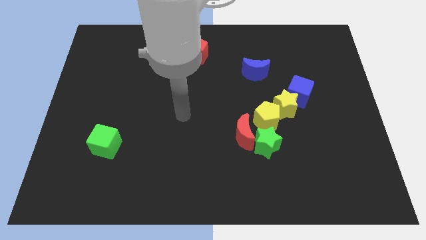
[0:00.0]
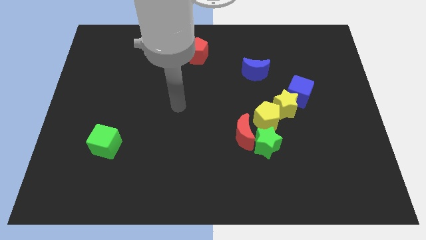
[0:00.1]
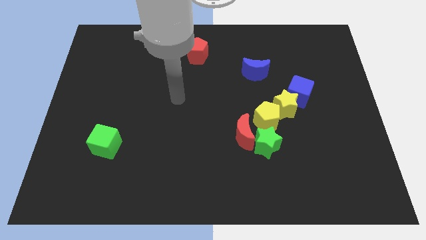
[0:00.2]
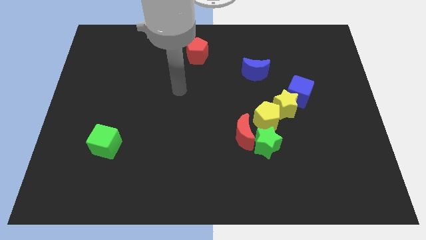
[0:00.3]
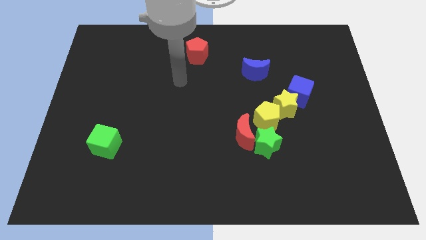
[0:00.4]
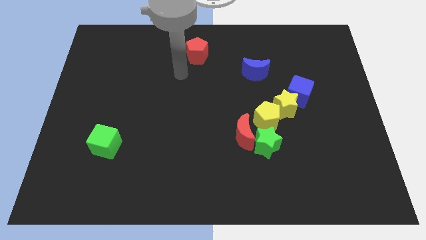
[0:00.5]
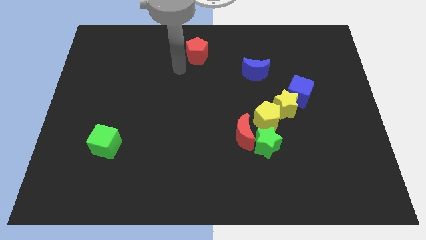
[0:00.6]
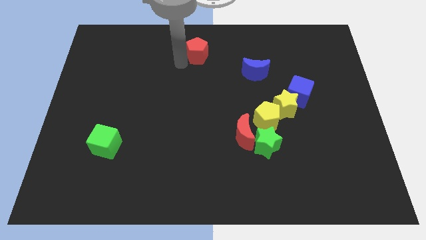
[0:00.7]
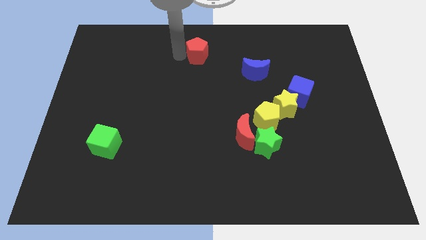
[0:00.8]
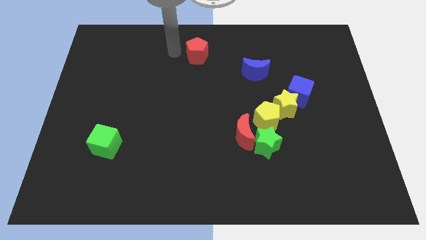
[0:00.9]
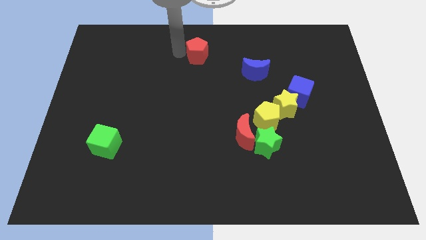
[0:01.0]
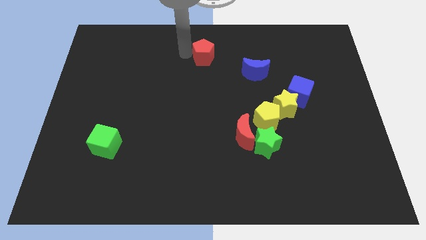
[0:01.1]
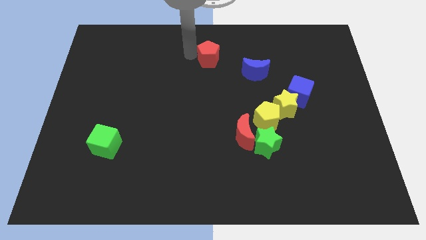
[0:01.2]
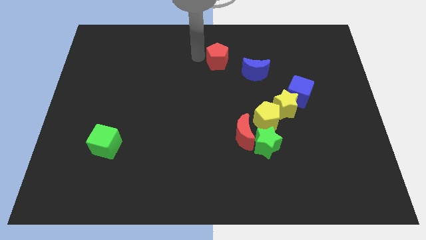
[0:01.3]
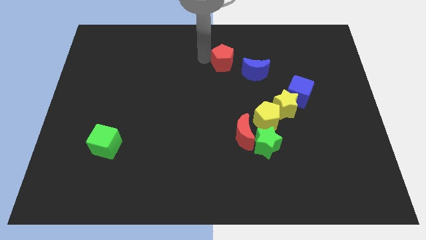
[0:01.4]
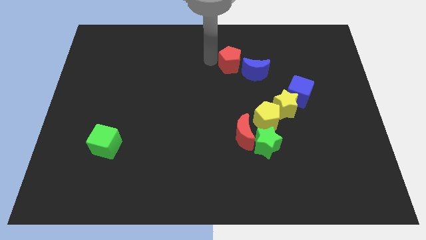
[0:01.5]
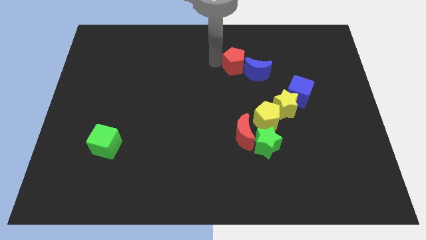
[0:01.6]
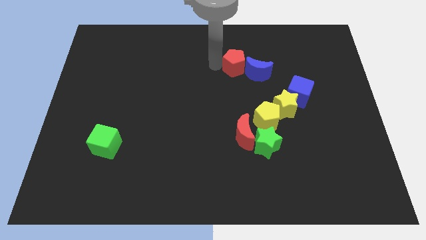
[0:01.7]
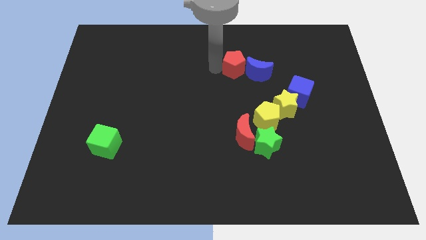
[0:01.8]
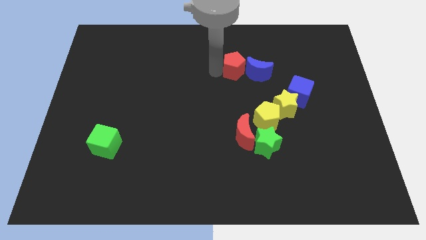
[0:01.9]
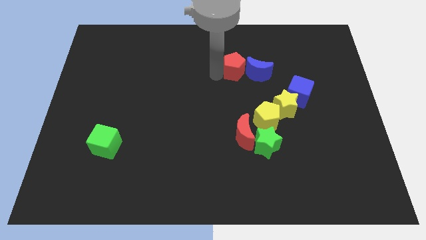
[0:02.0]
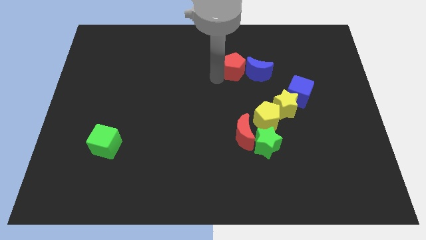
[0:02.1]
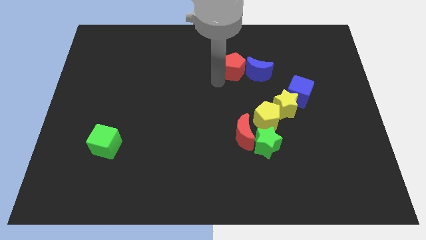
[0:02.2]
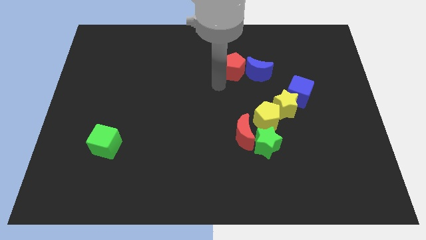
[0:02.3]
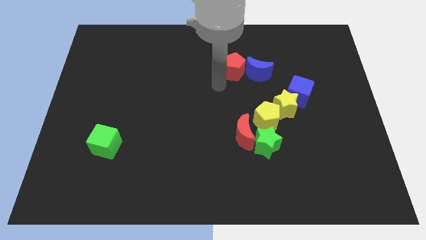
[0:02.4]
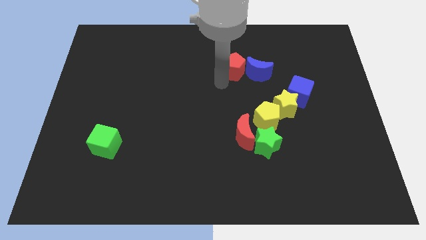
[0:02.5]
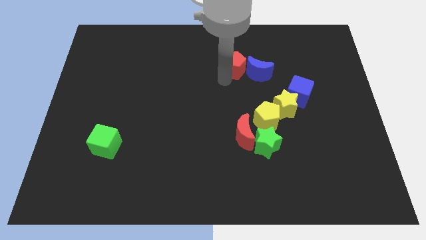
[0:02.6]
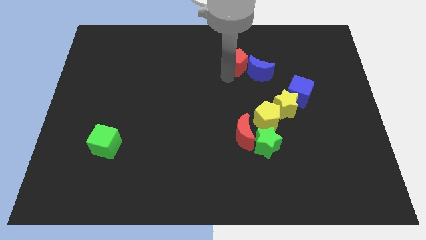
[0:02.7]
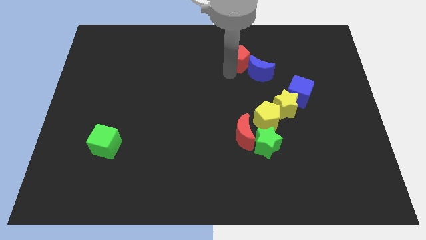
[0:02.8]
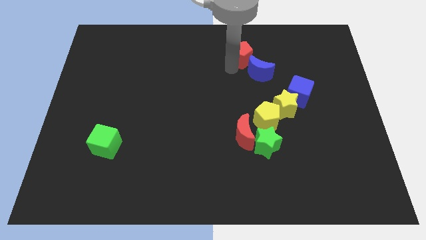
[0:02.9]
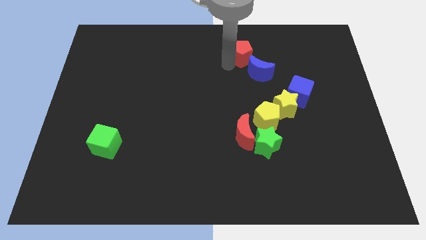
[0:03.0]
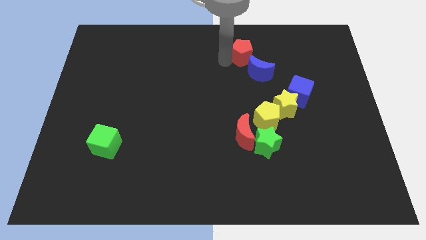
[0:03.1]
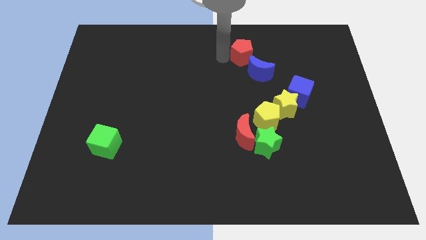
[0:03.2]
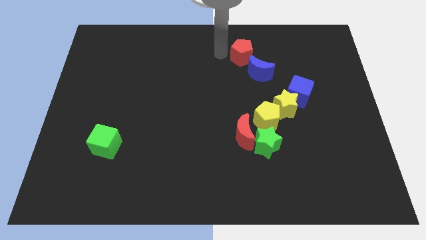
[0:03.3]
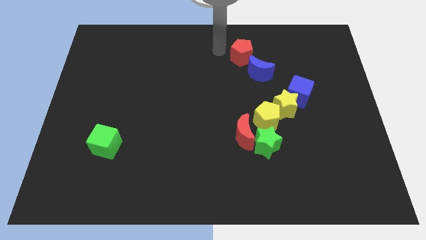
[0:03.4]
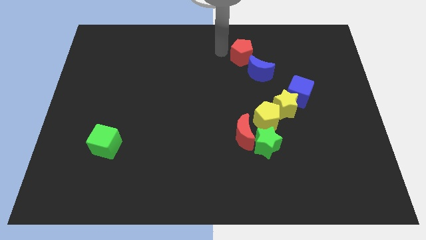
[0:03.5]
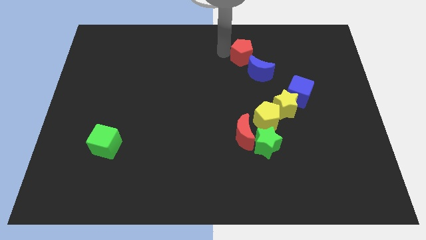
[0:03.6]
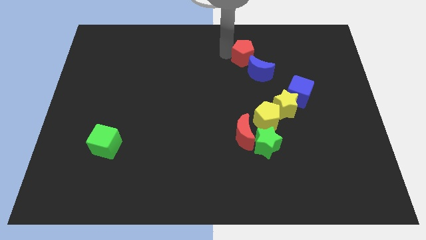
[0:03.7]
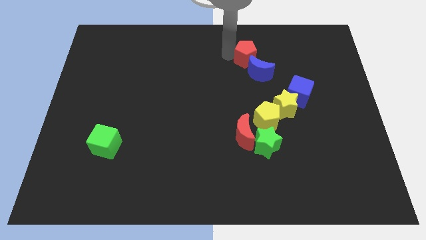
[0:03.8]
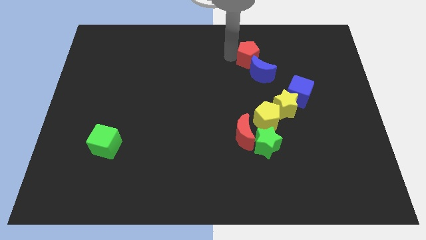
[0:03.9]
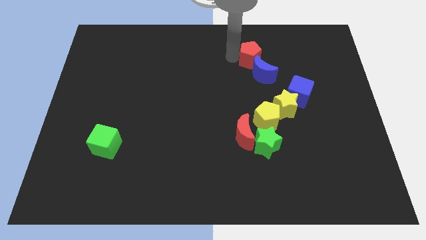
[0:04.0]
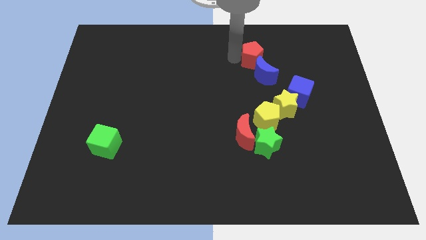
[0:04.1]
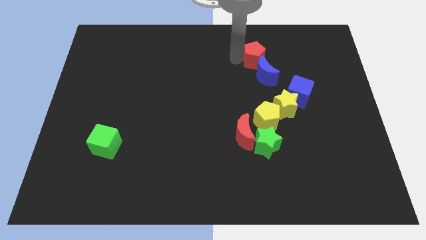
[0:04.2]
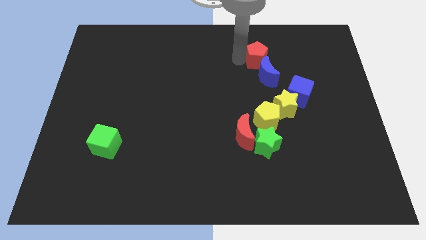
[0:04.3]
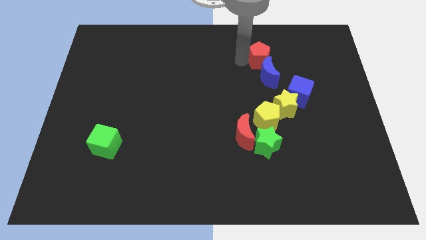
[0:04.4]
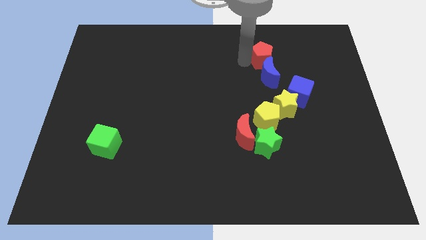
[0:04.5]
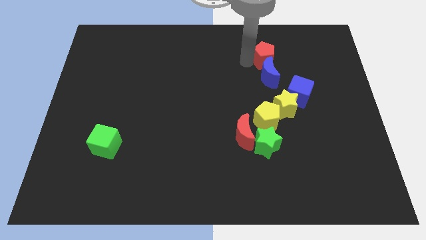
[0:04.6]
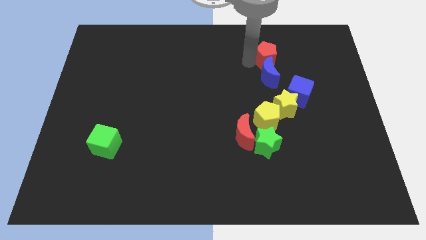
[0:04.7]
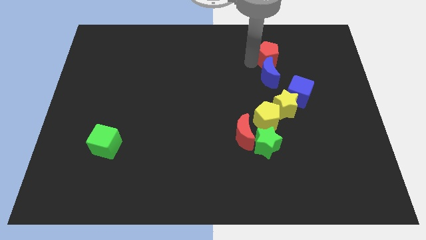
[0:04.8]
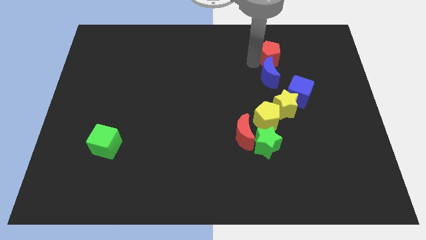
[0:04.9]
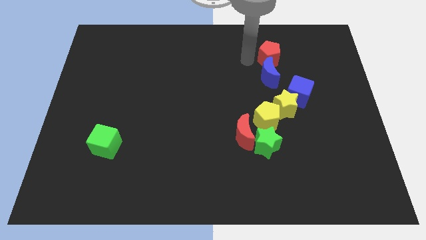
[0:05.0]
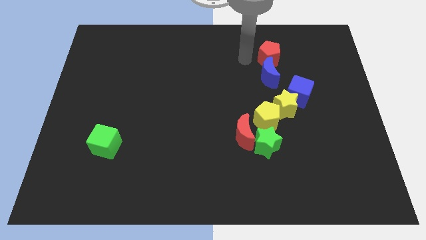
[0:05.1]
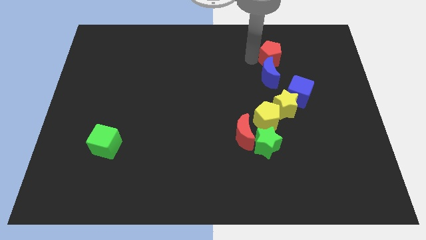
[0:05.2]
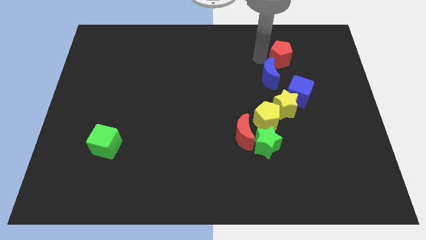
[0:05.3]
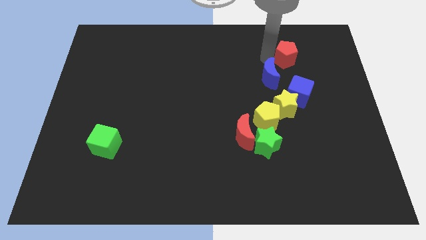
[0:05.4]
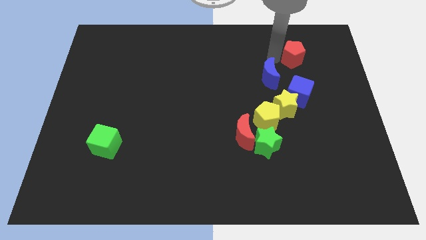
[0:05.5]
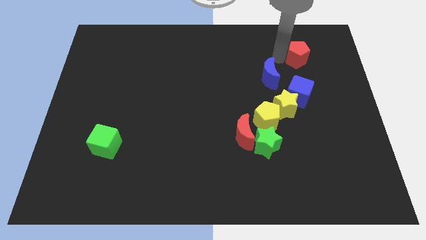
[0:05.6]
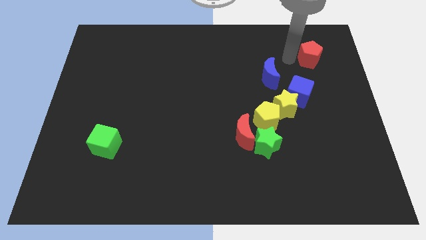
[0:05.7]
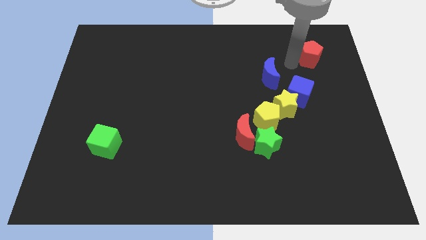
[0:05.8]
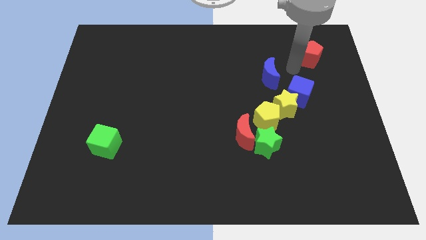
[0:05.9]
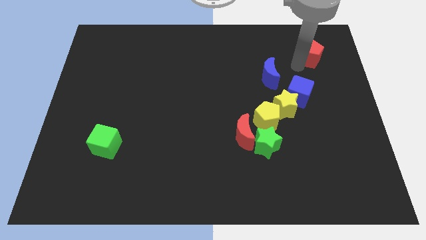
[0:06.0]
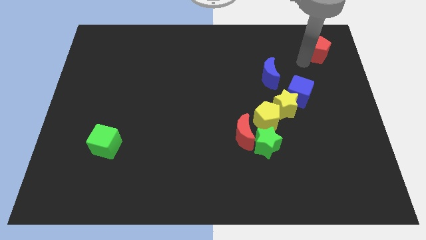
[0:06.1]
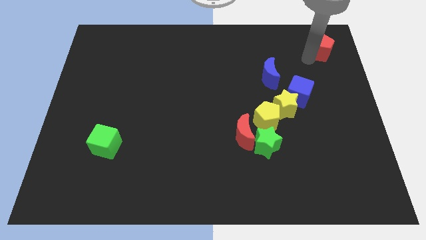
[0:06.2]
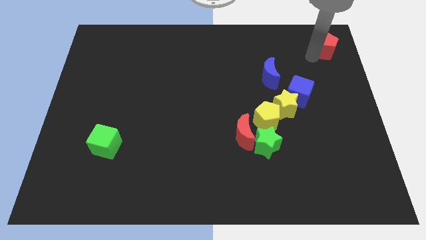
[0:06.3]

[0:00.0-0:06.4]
put the red pentagon to the upper right corner

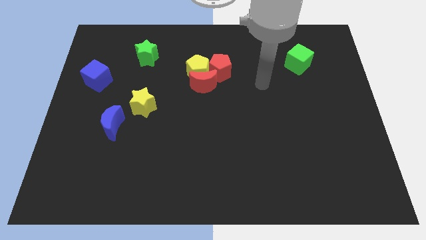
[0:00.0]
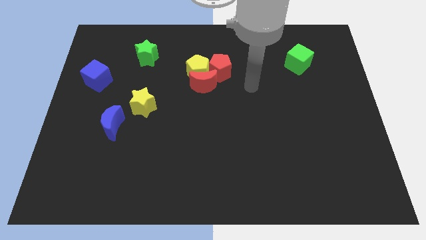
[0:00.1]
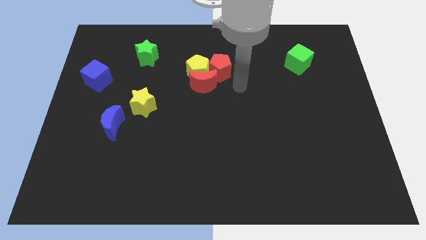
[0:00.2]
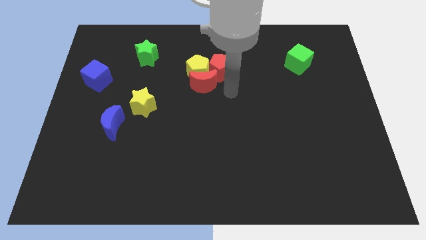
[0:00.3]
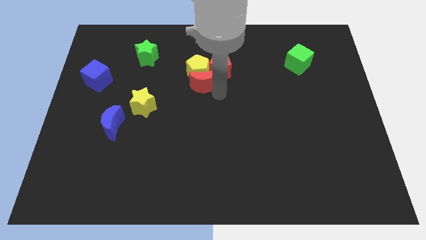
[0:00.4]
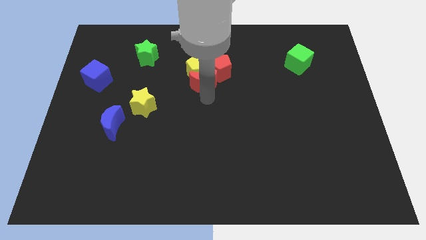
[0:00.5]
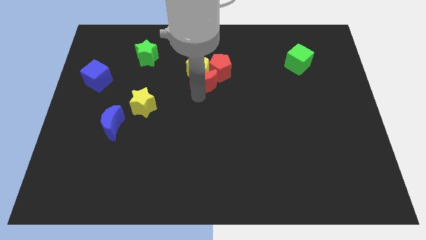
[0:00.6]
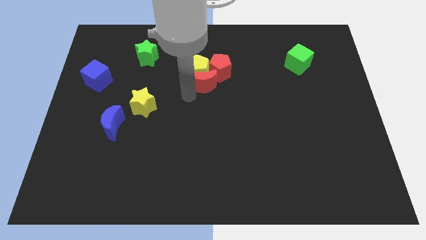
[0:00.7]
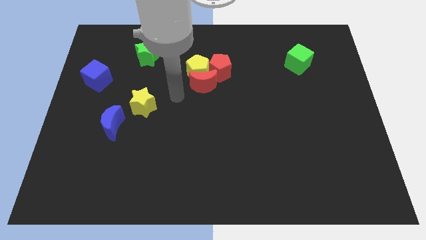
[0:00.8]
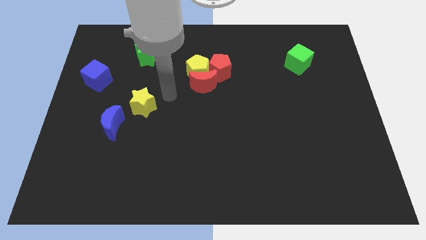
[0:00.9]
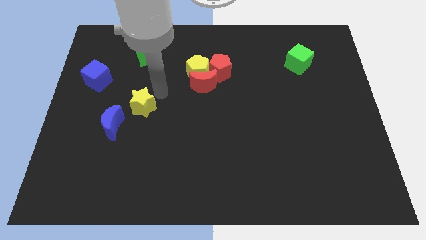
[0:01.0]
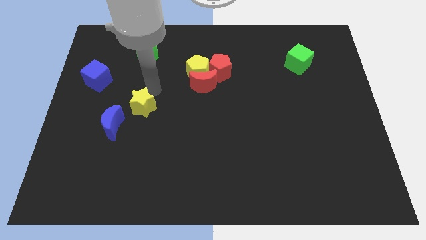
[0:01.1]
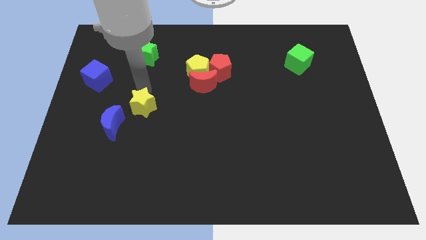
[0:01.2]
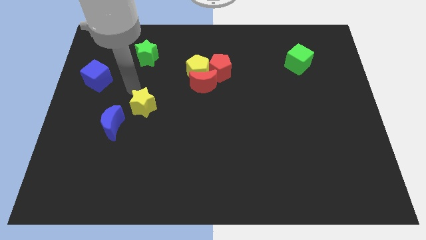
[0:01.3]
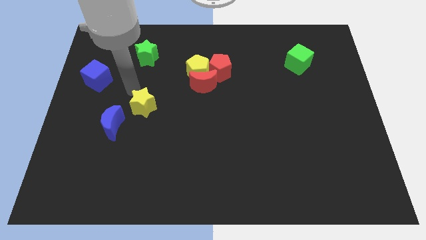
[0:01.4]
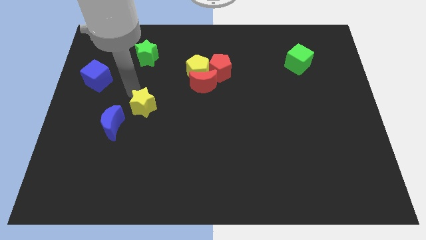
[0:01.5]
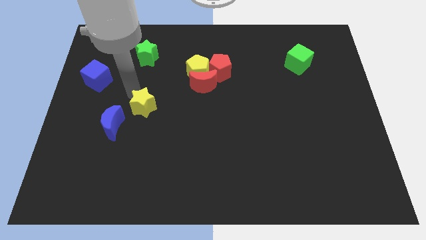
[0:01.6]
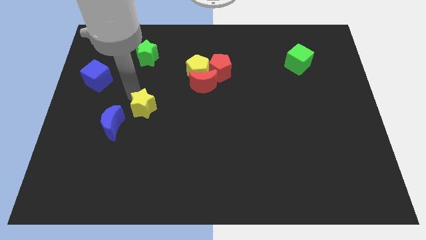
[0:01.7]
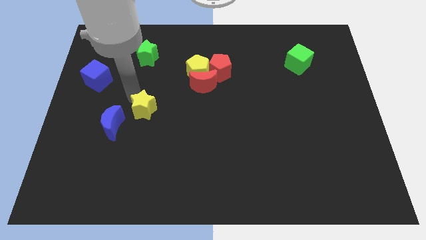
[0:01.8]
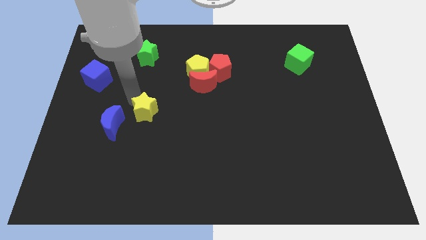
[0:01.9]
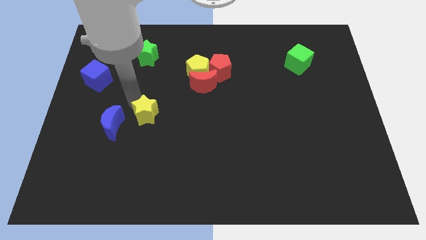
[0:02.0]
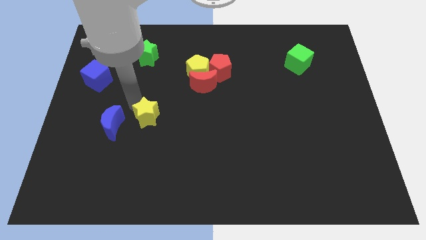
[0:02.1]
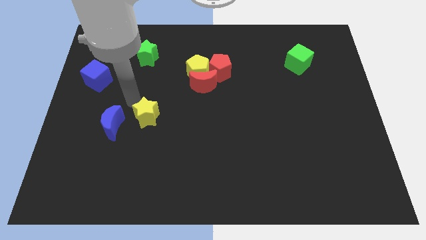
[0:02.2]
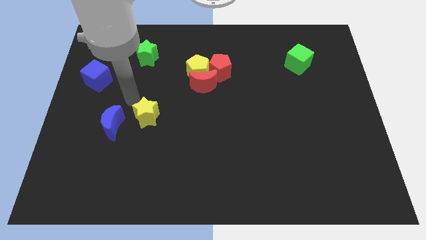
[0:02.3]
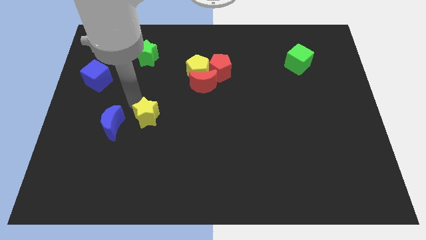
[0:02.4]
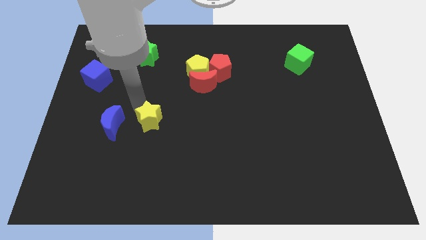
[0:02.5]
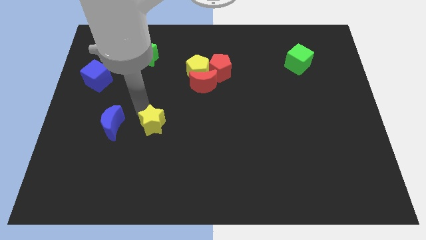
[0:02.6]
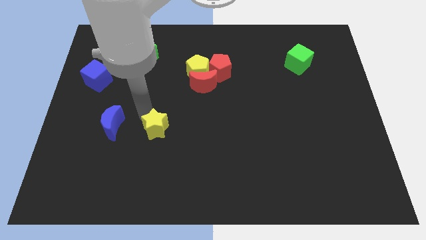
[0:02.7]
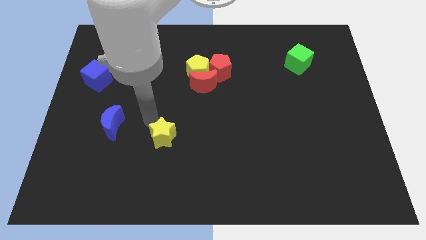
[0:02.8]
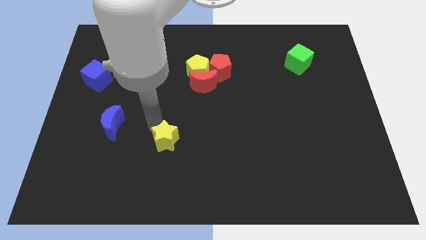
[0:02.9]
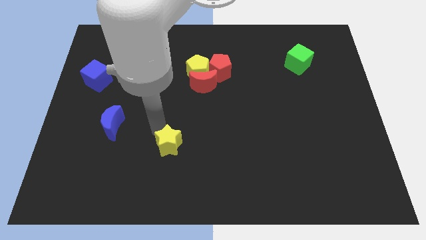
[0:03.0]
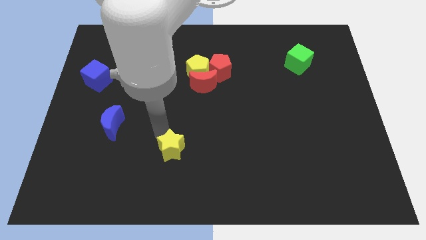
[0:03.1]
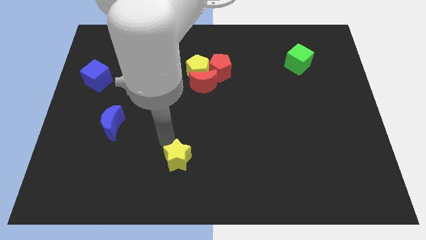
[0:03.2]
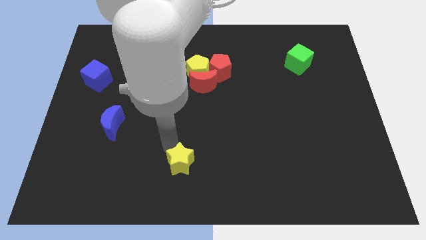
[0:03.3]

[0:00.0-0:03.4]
push the yellow star to the bottom
